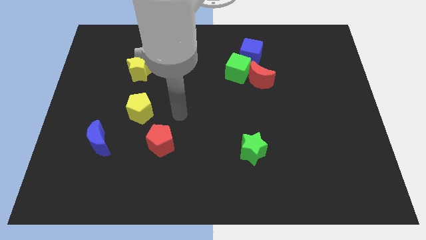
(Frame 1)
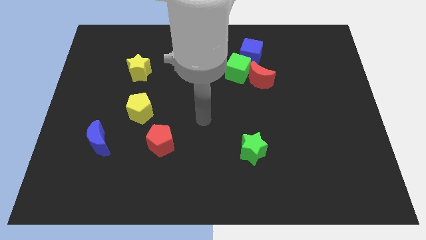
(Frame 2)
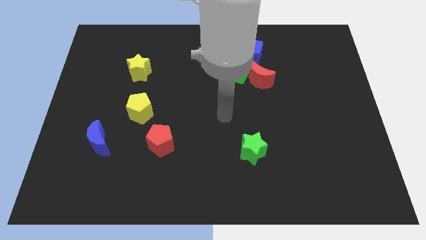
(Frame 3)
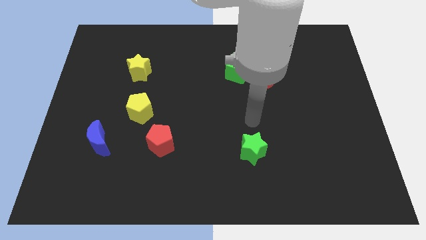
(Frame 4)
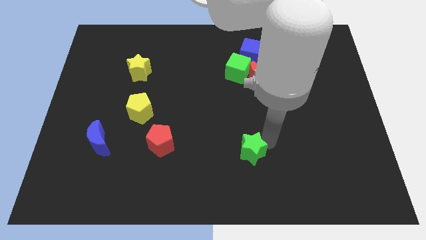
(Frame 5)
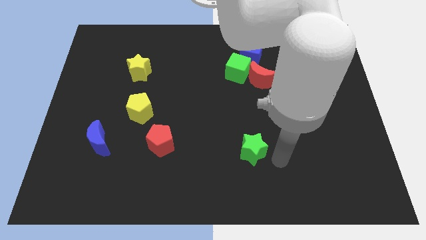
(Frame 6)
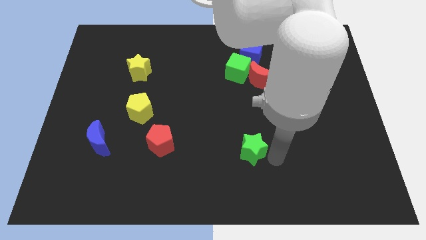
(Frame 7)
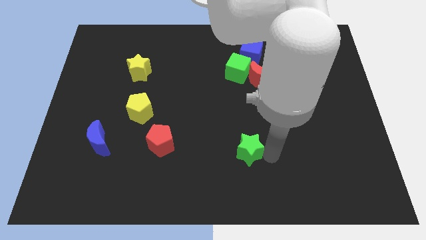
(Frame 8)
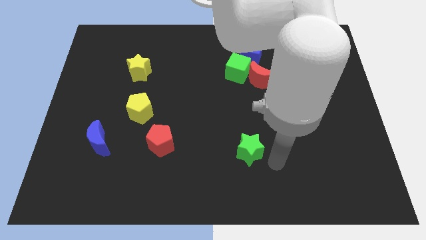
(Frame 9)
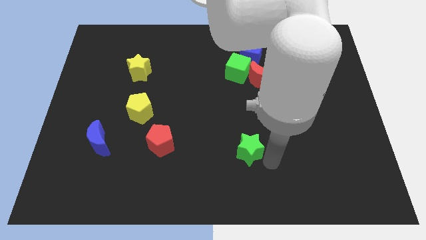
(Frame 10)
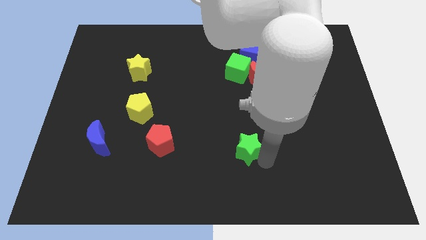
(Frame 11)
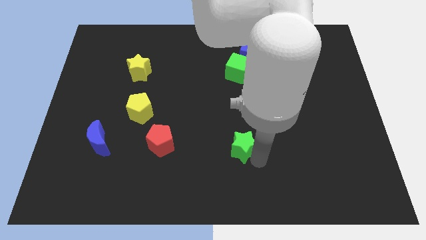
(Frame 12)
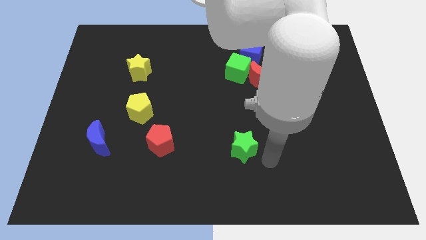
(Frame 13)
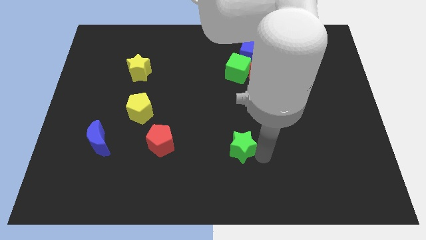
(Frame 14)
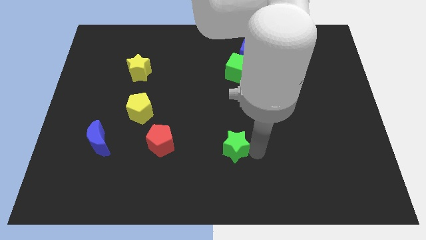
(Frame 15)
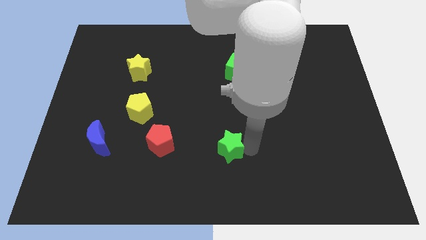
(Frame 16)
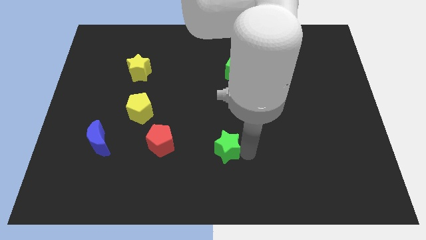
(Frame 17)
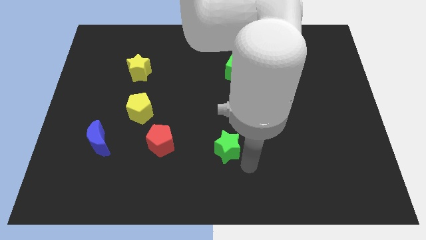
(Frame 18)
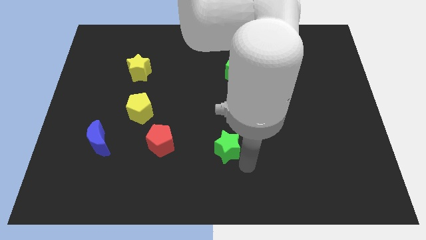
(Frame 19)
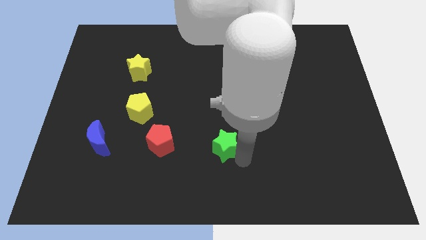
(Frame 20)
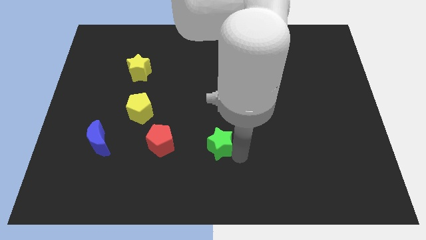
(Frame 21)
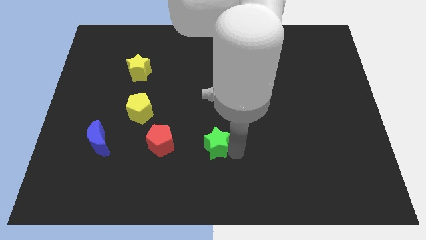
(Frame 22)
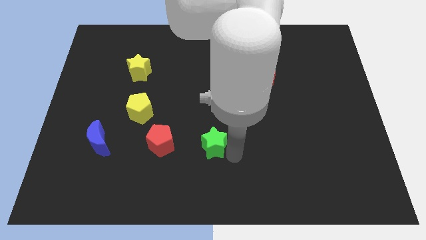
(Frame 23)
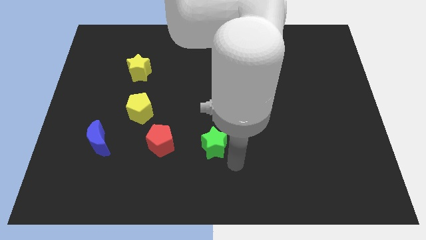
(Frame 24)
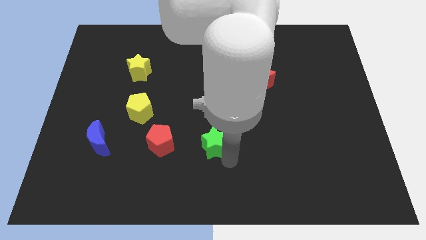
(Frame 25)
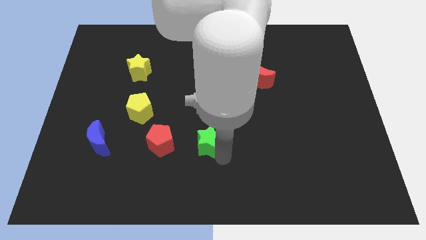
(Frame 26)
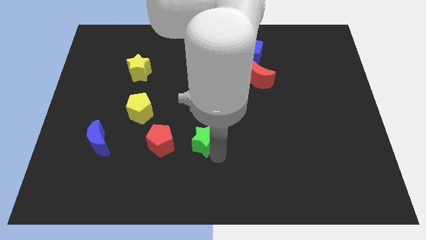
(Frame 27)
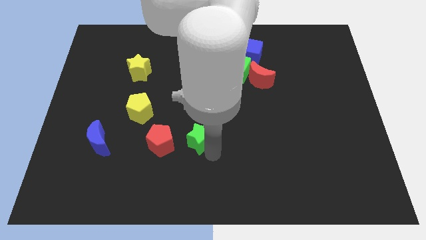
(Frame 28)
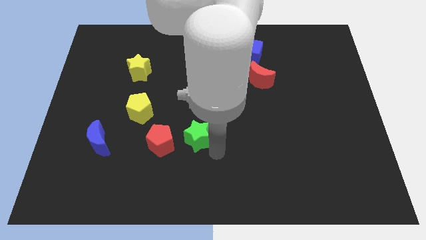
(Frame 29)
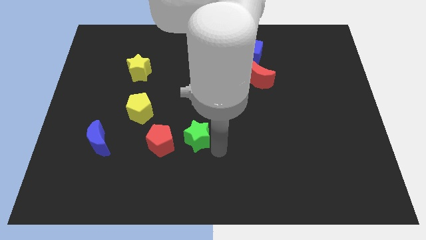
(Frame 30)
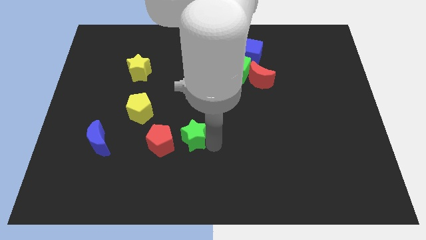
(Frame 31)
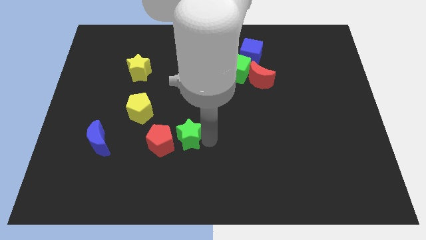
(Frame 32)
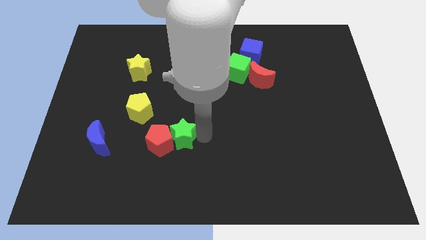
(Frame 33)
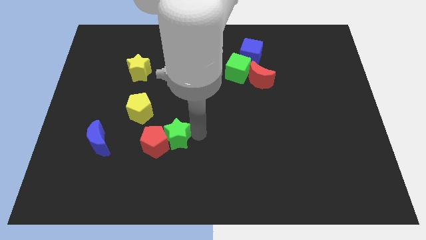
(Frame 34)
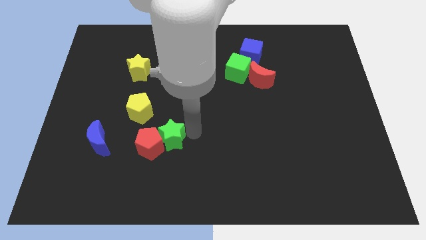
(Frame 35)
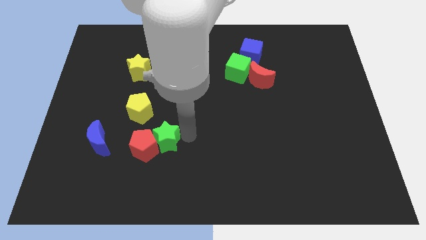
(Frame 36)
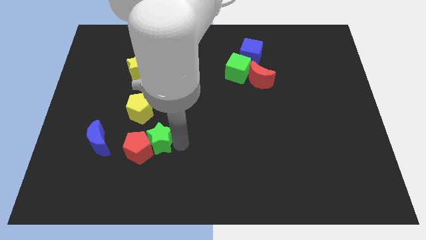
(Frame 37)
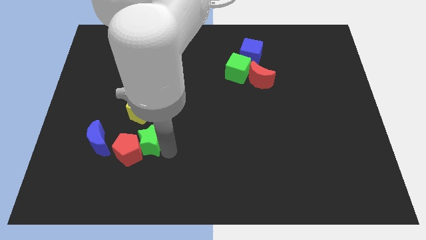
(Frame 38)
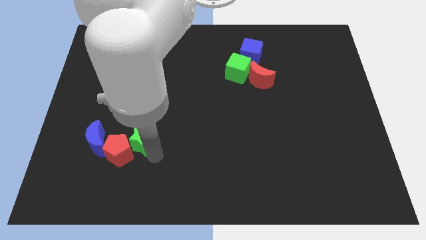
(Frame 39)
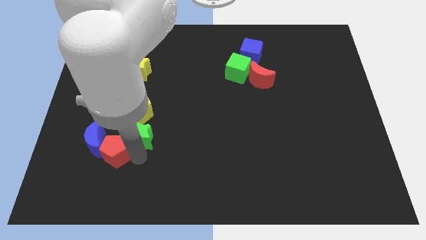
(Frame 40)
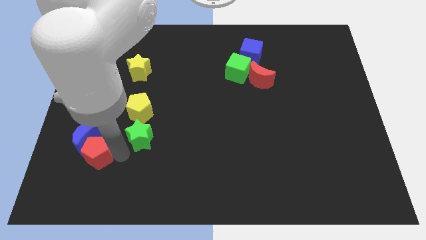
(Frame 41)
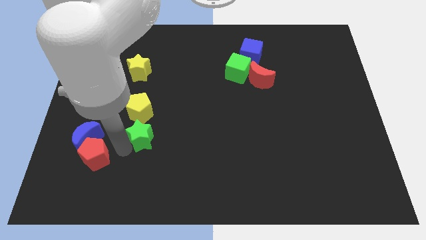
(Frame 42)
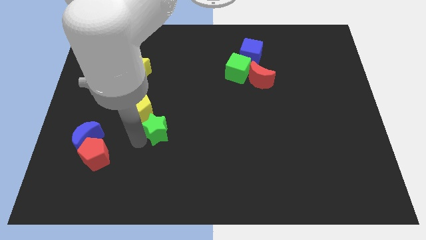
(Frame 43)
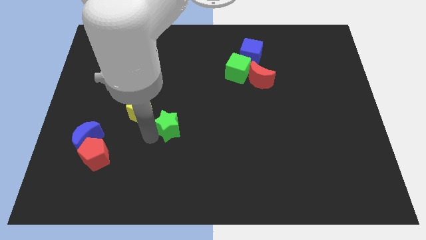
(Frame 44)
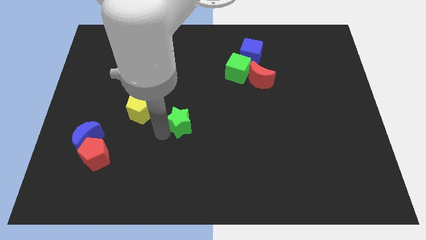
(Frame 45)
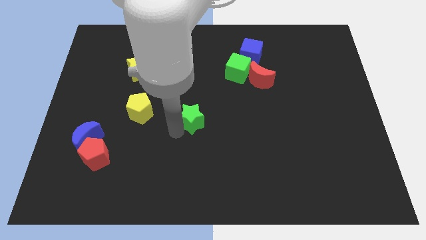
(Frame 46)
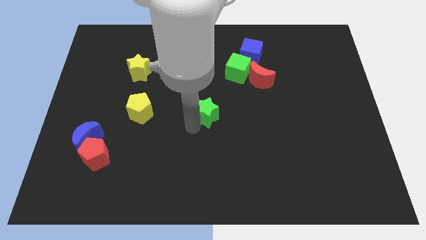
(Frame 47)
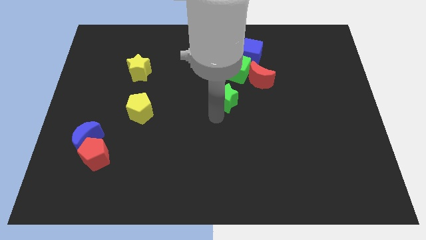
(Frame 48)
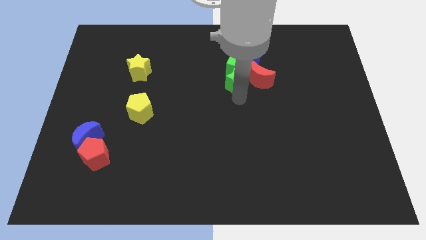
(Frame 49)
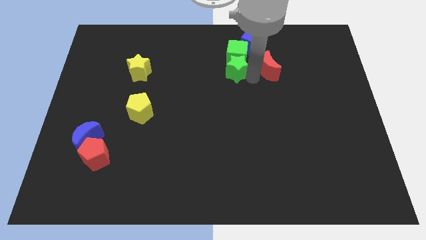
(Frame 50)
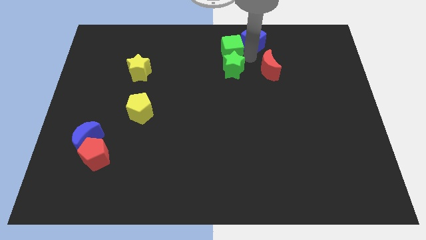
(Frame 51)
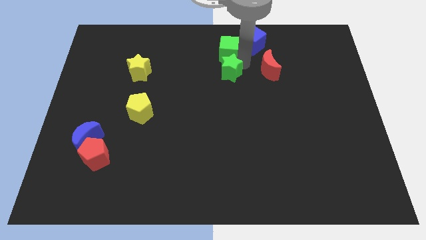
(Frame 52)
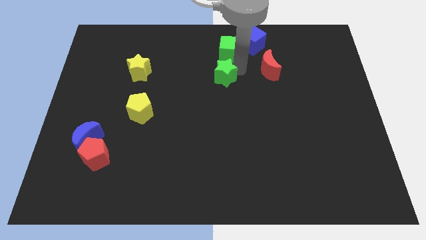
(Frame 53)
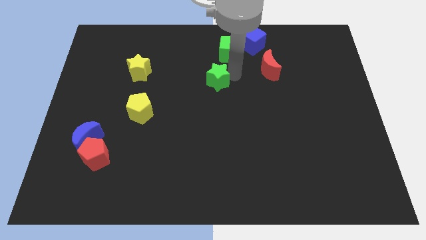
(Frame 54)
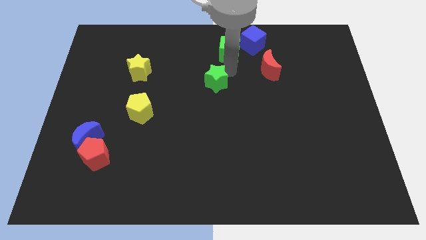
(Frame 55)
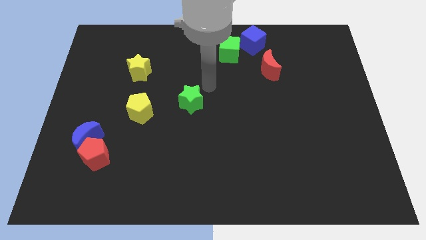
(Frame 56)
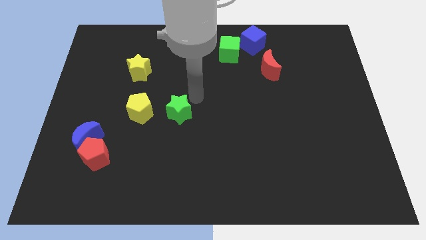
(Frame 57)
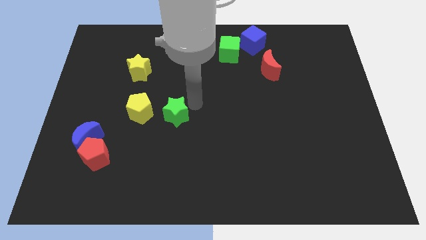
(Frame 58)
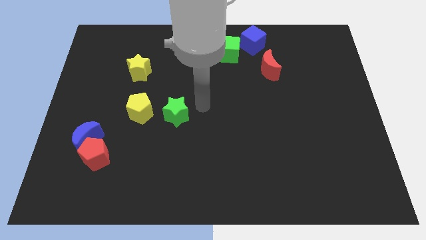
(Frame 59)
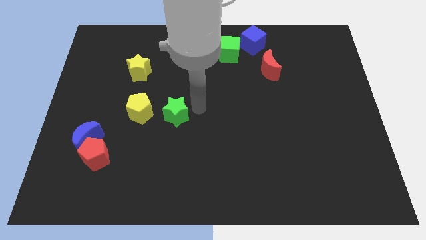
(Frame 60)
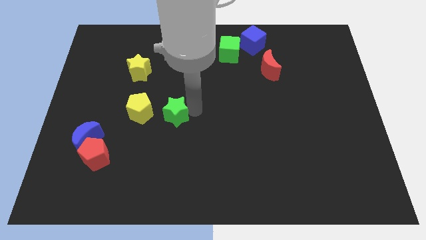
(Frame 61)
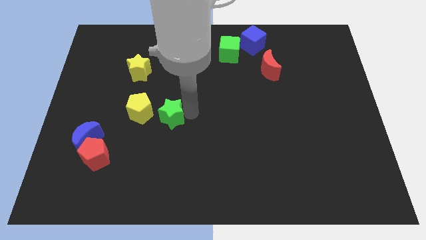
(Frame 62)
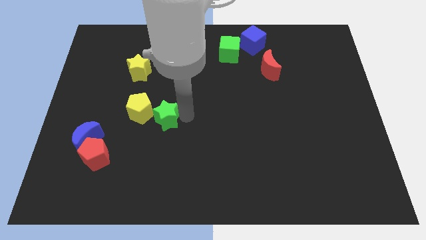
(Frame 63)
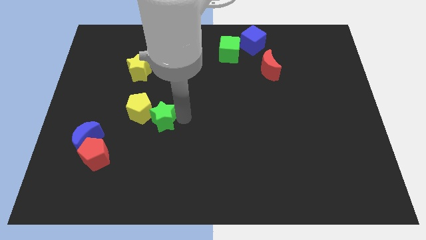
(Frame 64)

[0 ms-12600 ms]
put the green star to the yellow pentagon

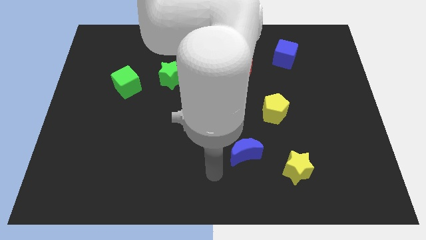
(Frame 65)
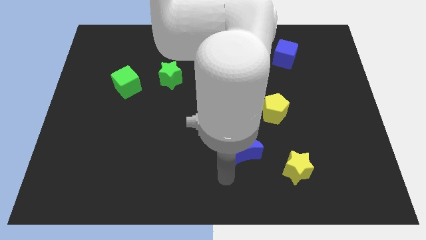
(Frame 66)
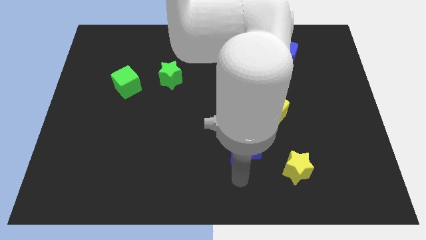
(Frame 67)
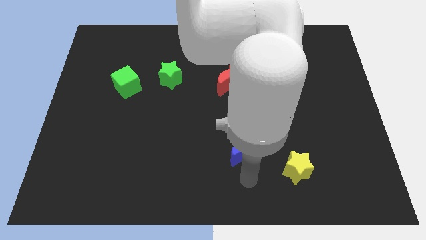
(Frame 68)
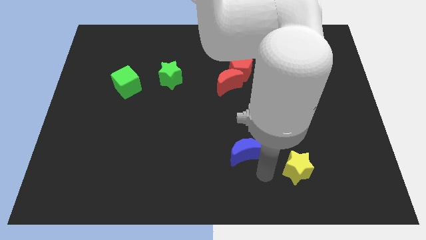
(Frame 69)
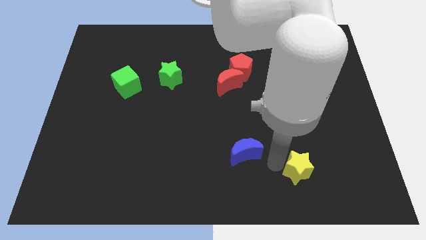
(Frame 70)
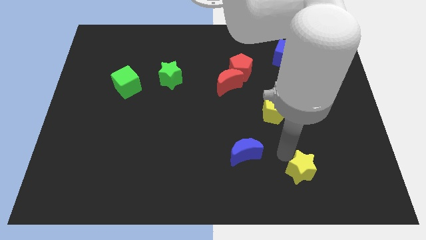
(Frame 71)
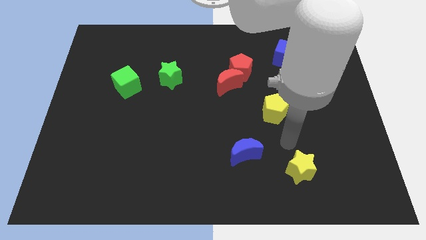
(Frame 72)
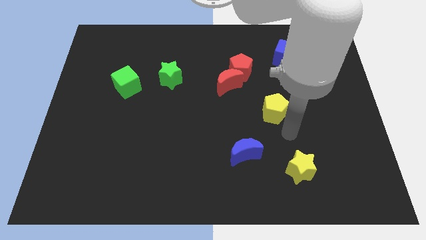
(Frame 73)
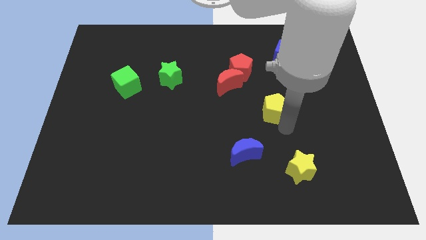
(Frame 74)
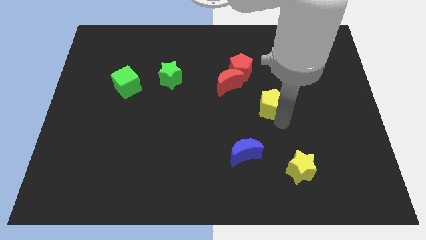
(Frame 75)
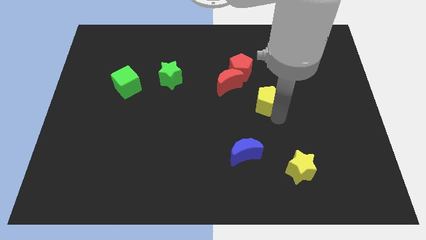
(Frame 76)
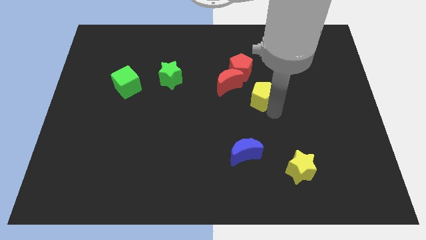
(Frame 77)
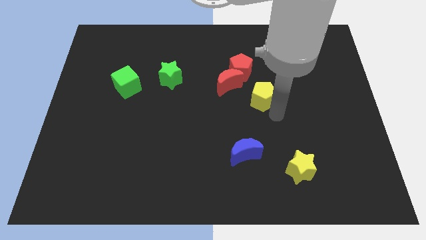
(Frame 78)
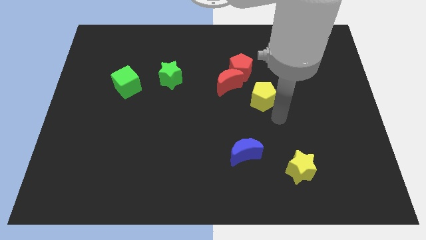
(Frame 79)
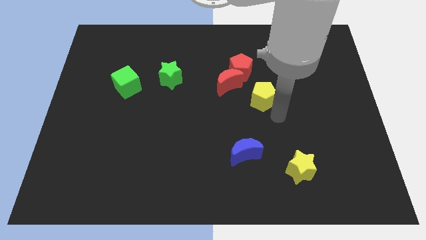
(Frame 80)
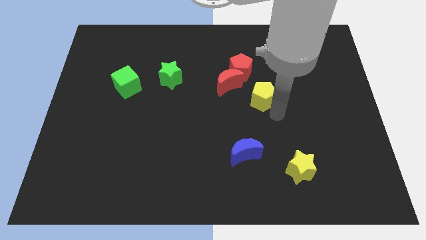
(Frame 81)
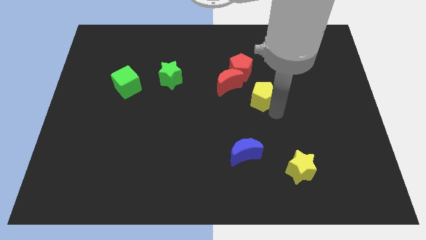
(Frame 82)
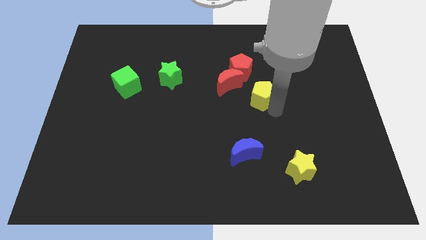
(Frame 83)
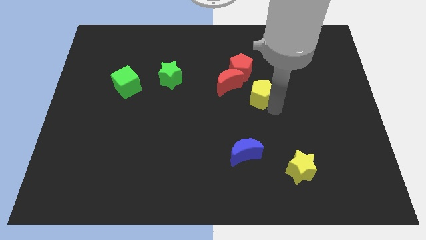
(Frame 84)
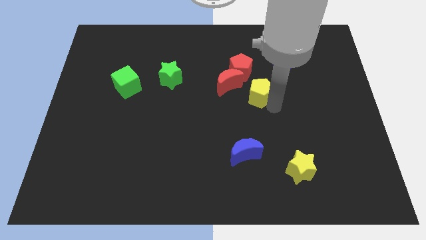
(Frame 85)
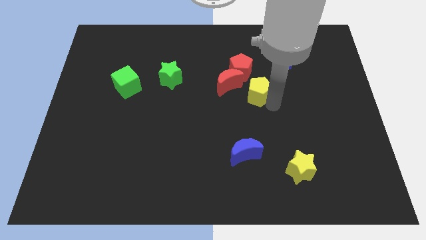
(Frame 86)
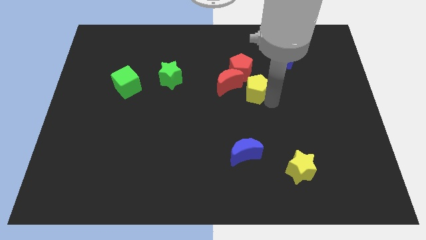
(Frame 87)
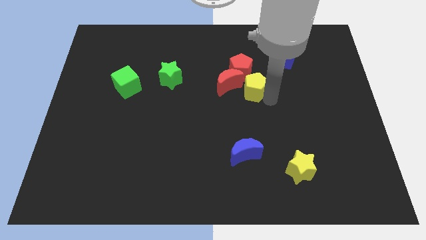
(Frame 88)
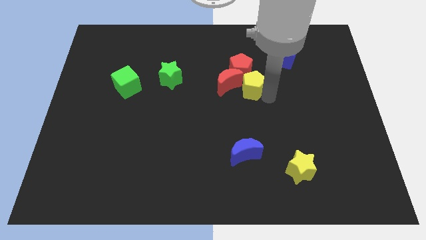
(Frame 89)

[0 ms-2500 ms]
move the yellow pentagon close to the red pentagon
